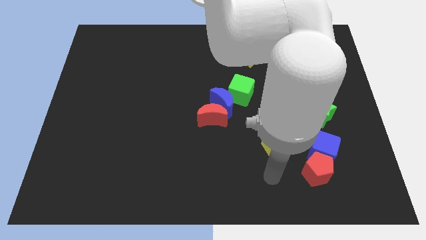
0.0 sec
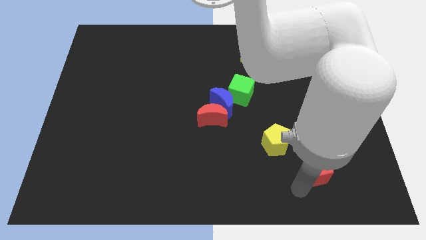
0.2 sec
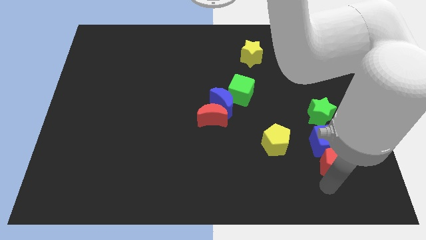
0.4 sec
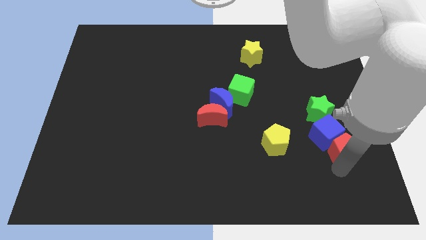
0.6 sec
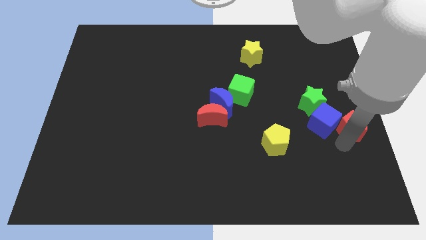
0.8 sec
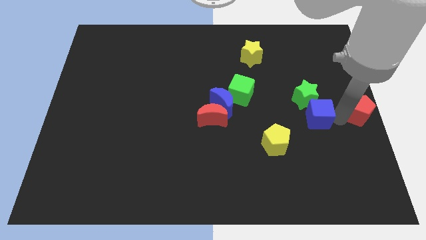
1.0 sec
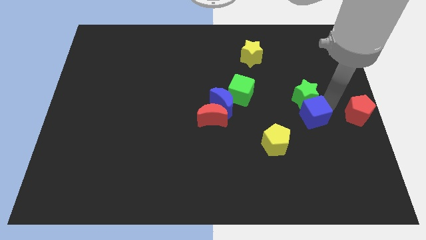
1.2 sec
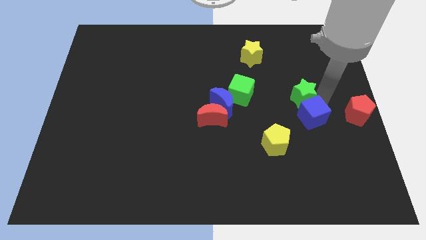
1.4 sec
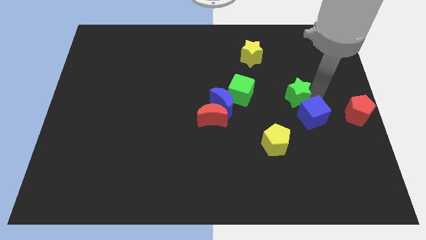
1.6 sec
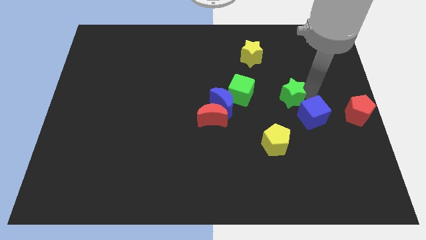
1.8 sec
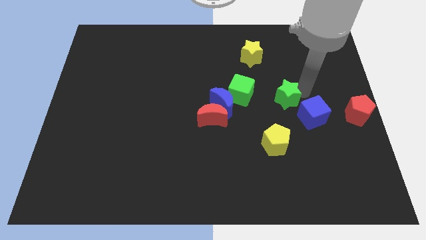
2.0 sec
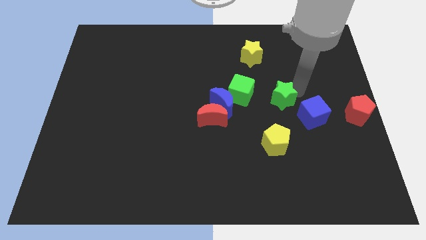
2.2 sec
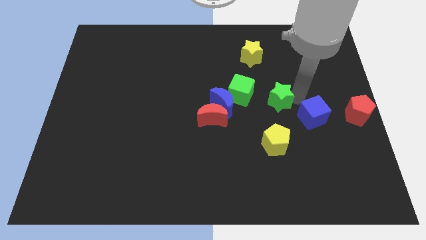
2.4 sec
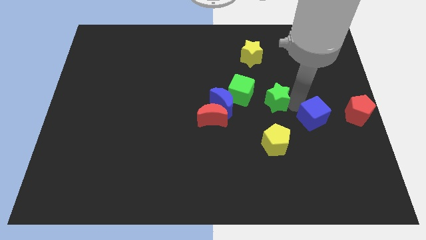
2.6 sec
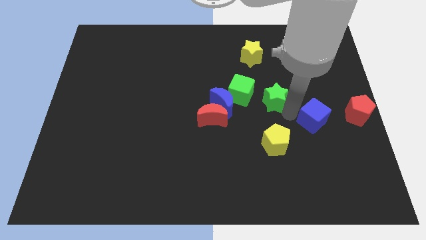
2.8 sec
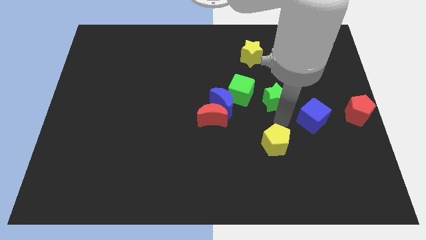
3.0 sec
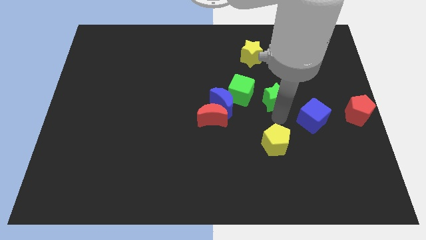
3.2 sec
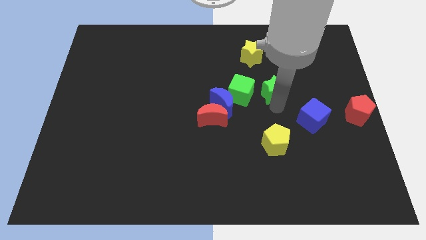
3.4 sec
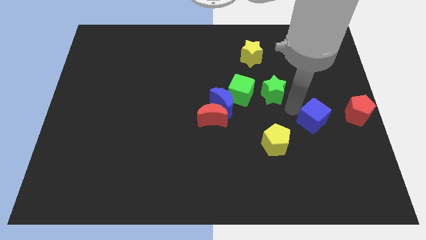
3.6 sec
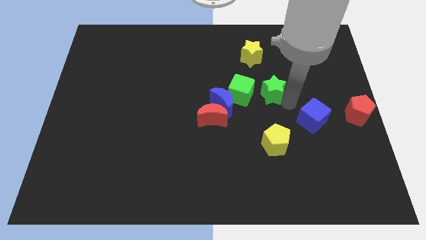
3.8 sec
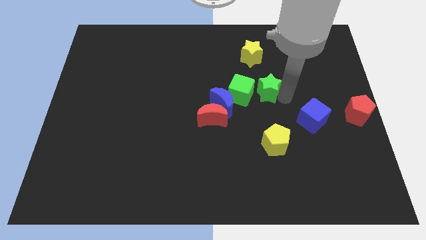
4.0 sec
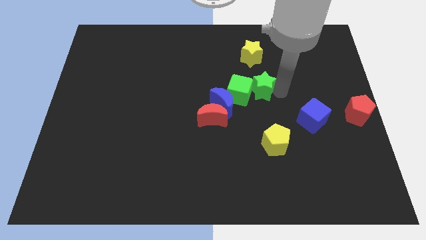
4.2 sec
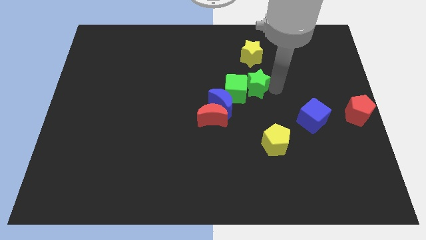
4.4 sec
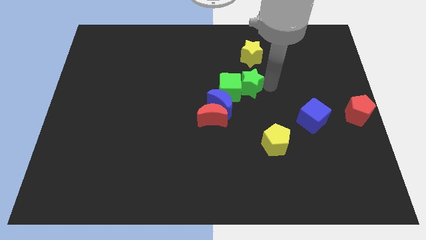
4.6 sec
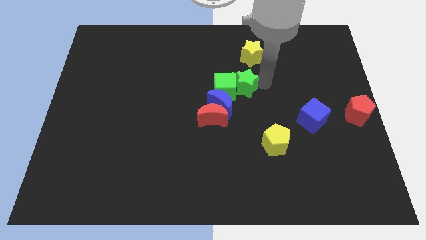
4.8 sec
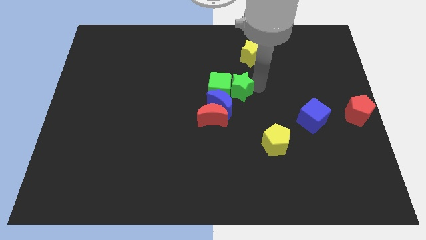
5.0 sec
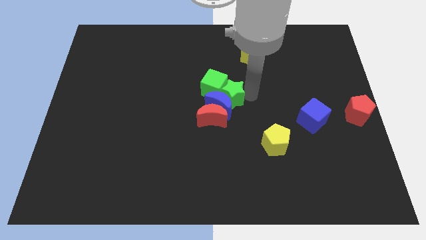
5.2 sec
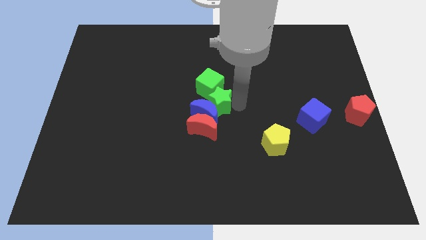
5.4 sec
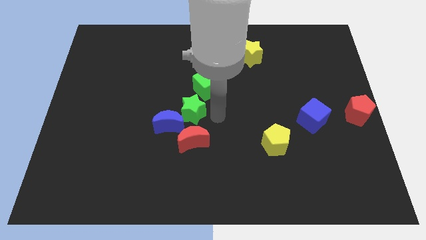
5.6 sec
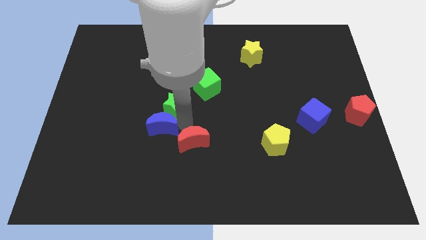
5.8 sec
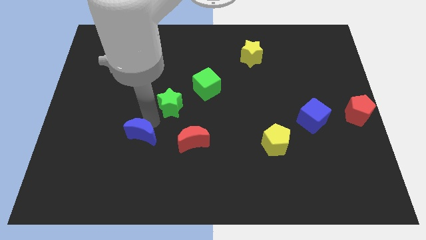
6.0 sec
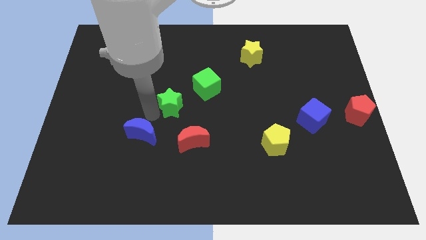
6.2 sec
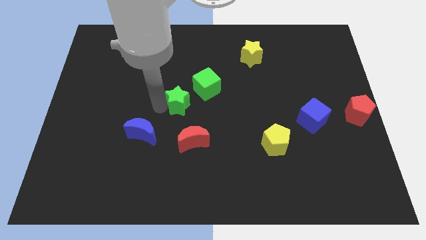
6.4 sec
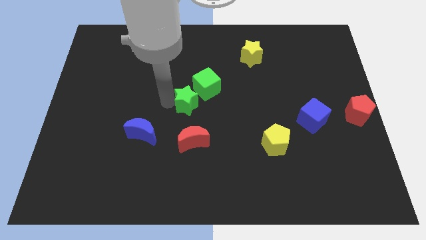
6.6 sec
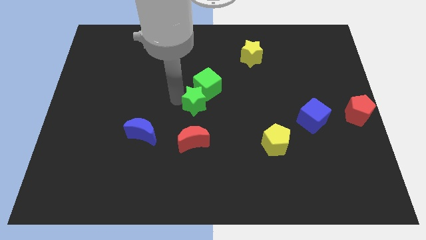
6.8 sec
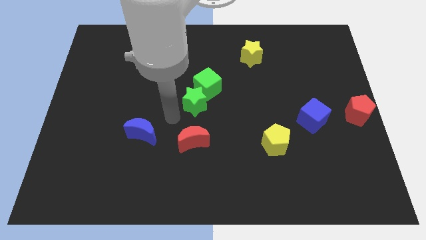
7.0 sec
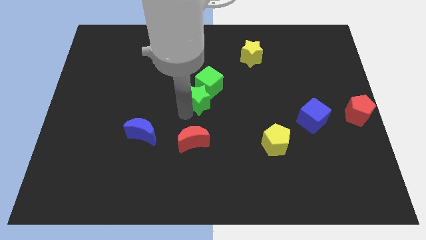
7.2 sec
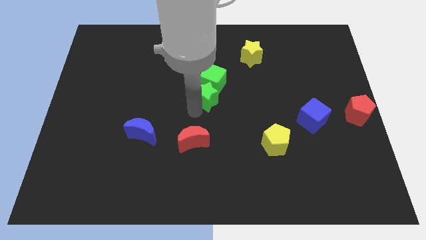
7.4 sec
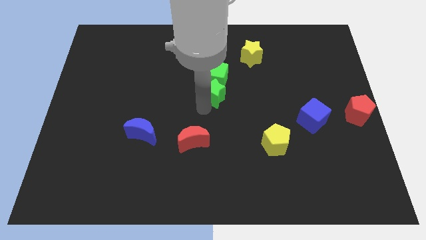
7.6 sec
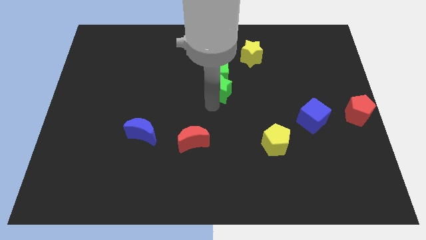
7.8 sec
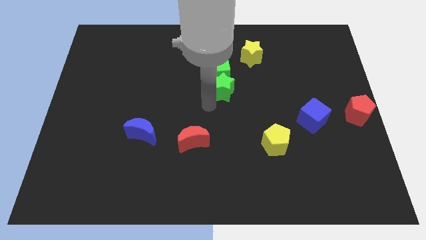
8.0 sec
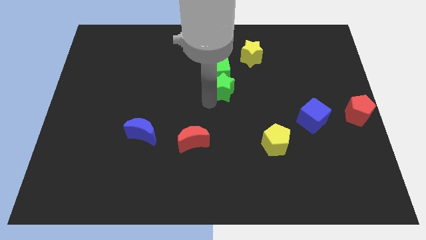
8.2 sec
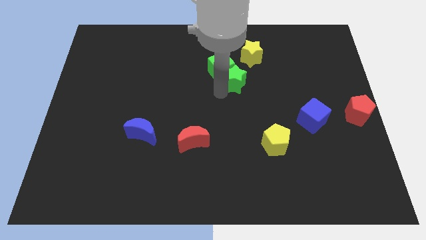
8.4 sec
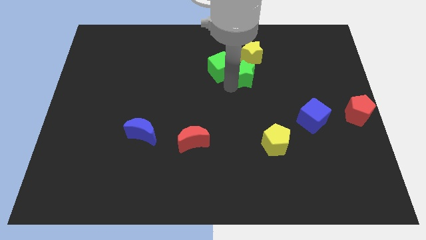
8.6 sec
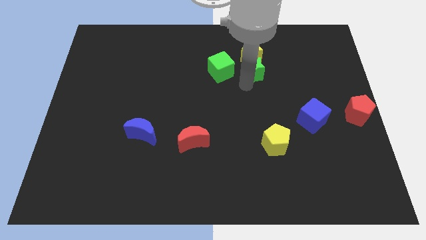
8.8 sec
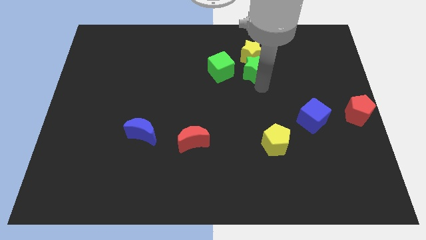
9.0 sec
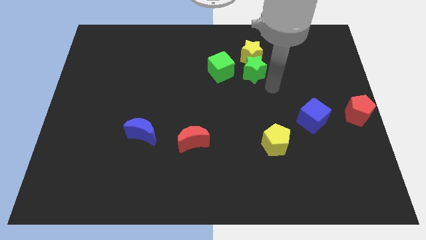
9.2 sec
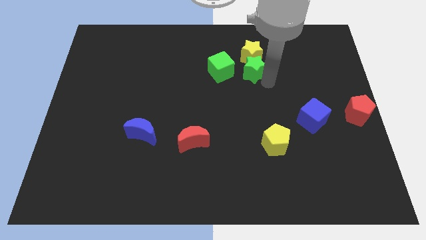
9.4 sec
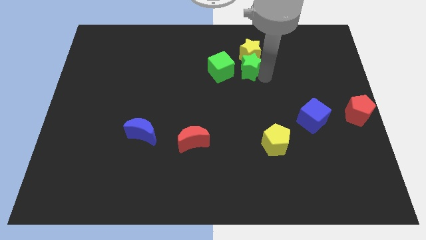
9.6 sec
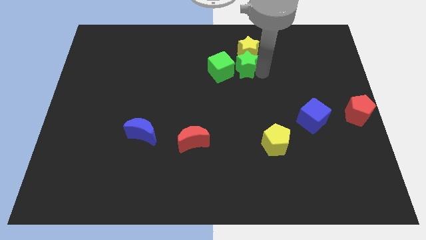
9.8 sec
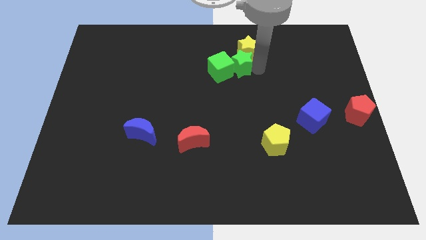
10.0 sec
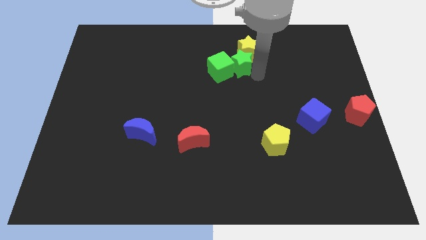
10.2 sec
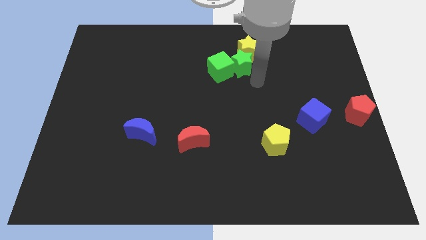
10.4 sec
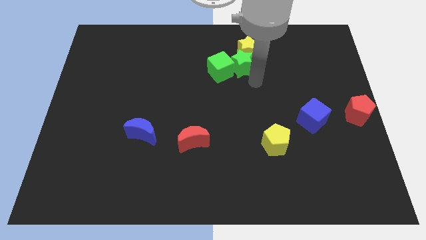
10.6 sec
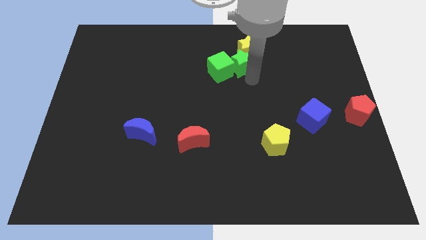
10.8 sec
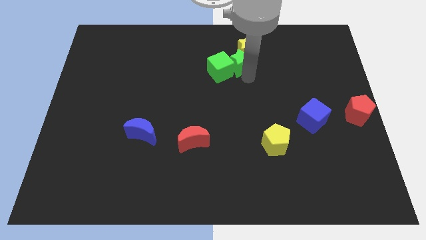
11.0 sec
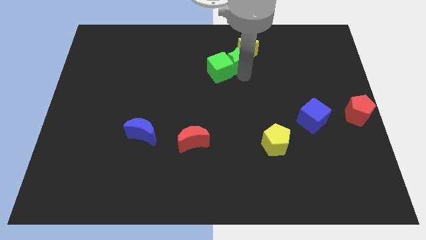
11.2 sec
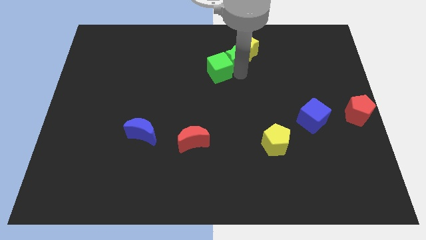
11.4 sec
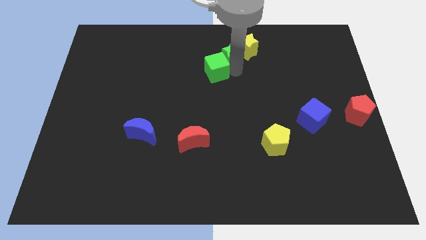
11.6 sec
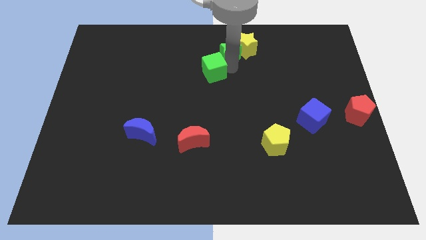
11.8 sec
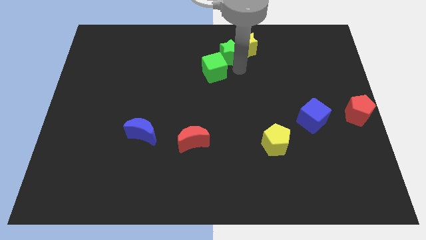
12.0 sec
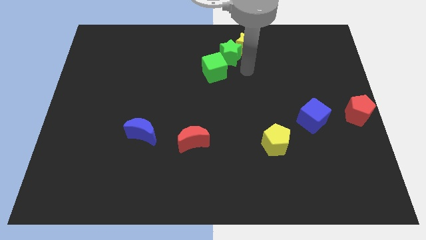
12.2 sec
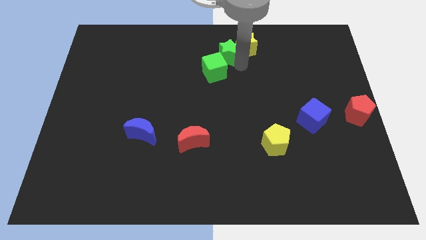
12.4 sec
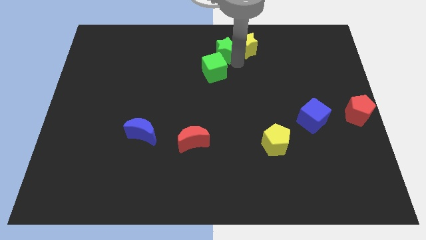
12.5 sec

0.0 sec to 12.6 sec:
put the green star to the top side
